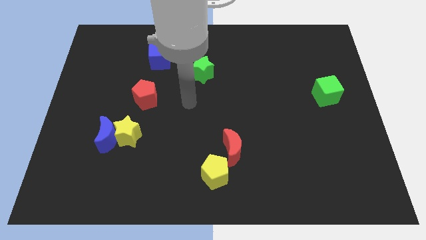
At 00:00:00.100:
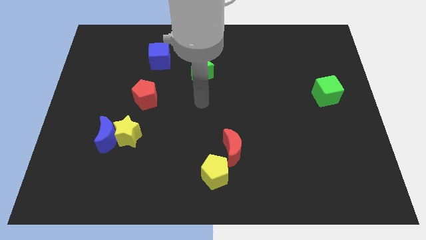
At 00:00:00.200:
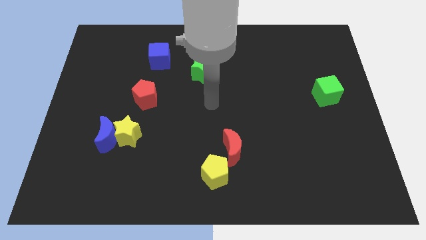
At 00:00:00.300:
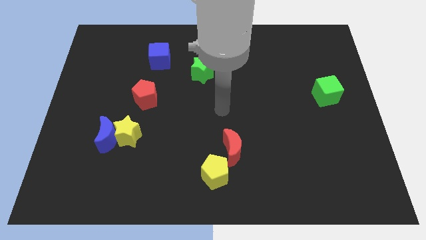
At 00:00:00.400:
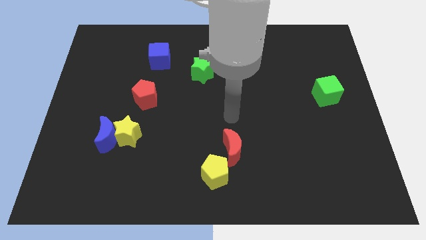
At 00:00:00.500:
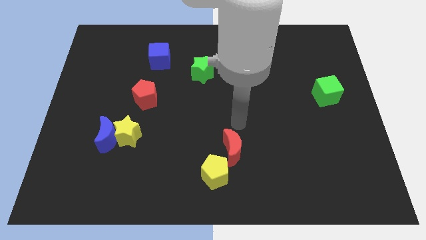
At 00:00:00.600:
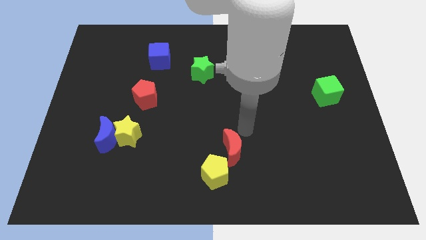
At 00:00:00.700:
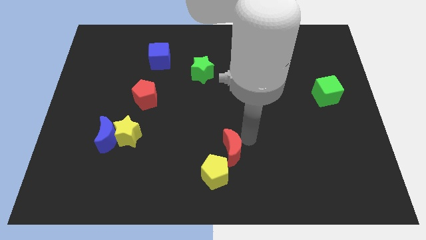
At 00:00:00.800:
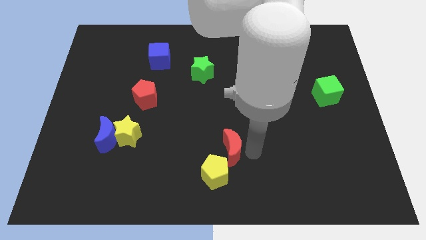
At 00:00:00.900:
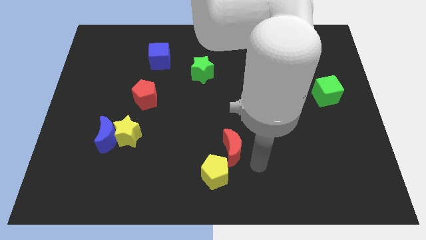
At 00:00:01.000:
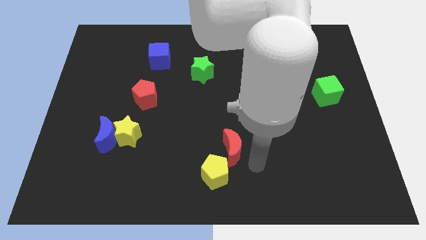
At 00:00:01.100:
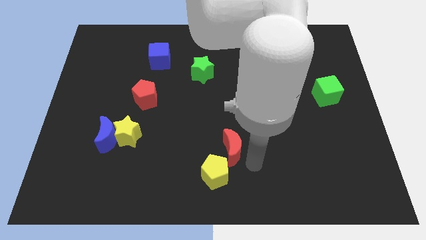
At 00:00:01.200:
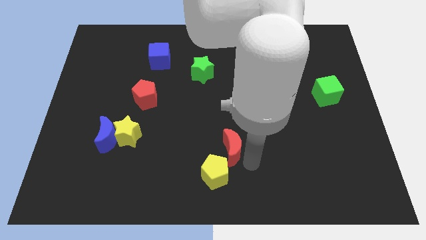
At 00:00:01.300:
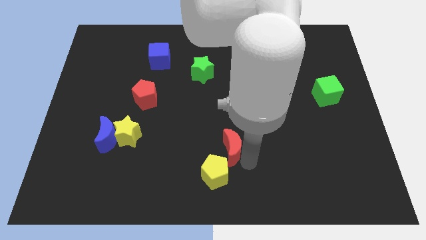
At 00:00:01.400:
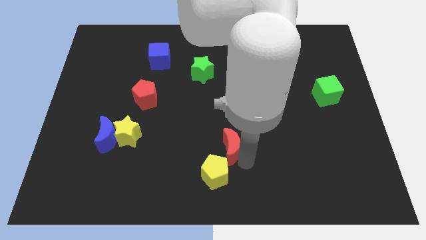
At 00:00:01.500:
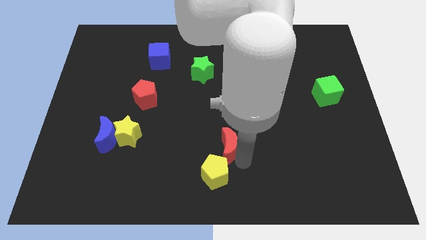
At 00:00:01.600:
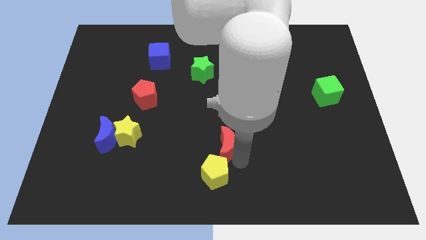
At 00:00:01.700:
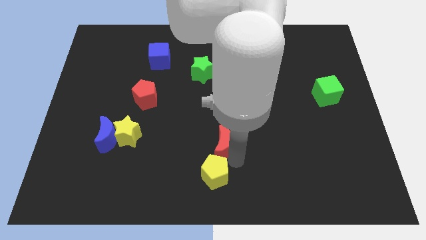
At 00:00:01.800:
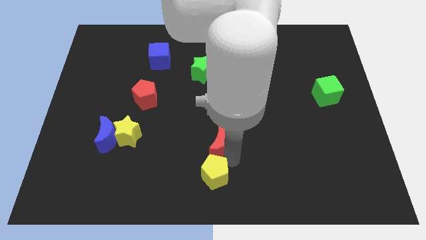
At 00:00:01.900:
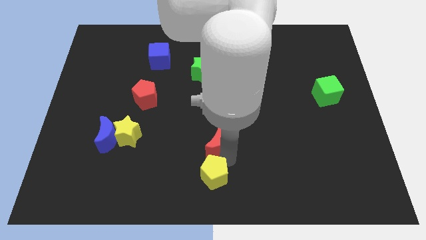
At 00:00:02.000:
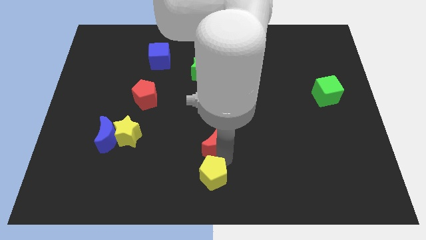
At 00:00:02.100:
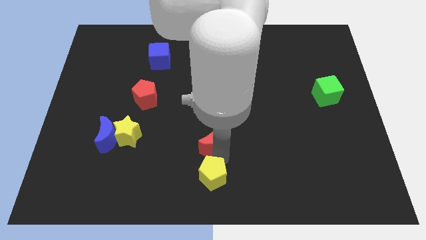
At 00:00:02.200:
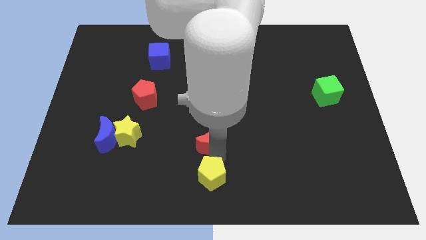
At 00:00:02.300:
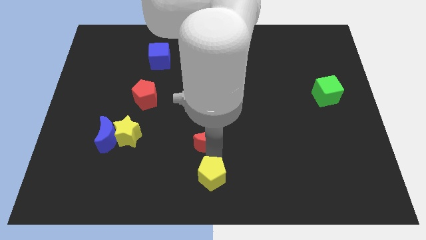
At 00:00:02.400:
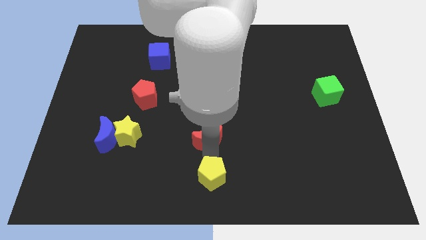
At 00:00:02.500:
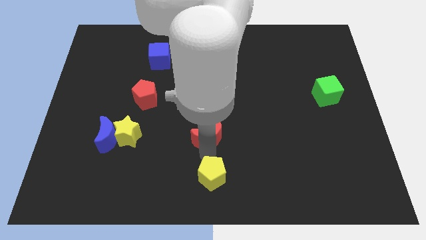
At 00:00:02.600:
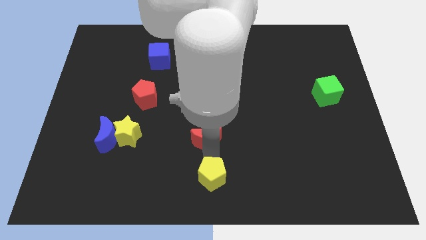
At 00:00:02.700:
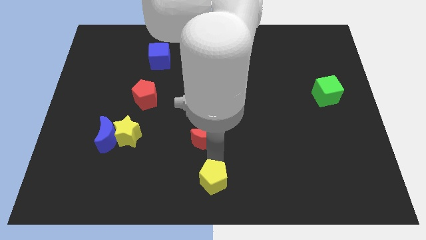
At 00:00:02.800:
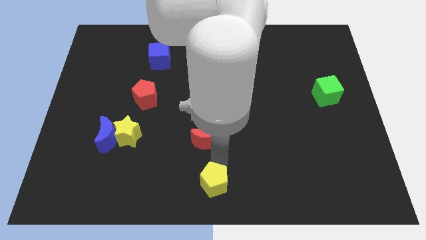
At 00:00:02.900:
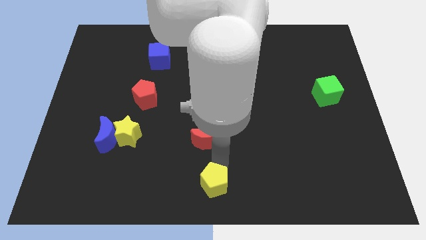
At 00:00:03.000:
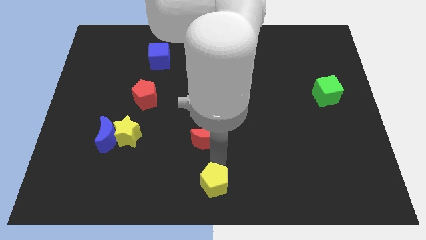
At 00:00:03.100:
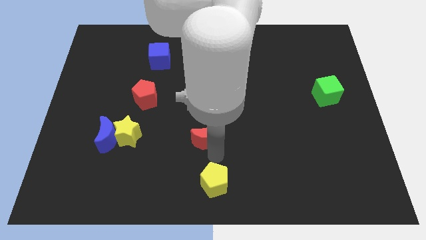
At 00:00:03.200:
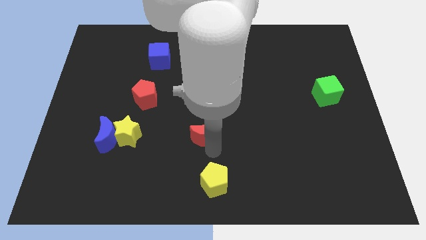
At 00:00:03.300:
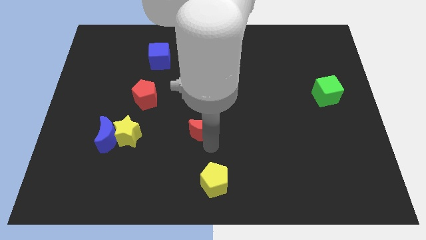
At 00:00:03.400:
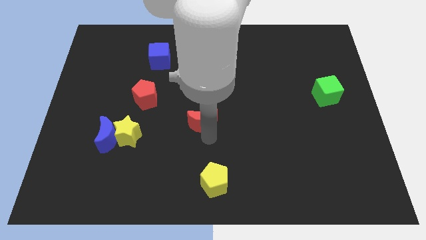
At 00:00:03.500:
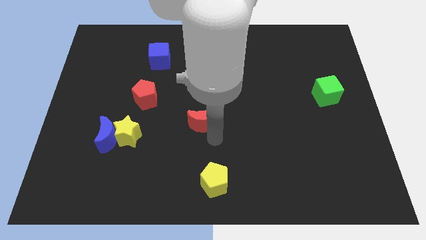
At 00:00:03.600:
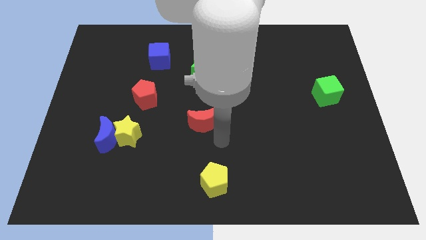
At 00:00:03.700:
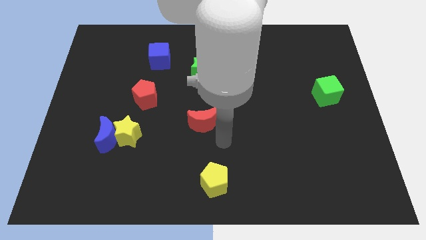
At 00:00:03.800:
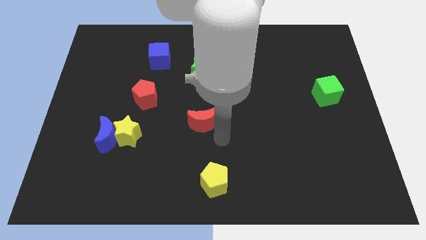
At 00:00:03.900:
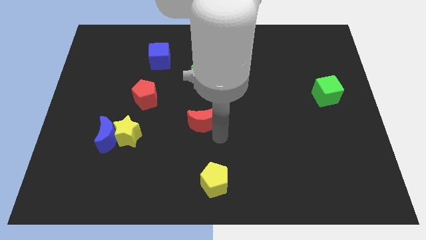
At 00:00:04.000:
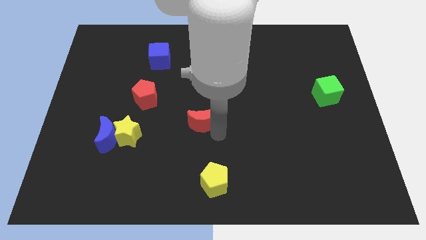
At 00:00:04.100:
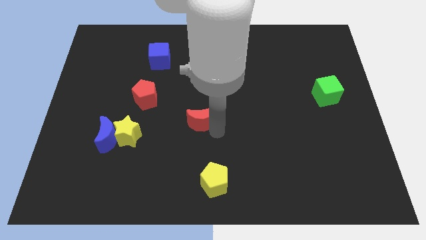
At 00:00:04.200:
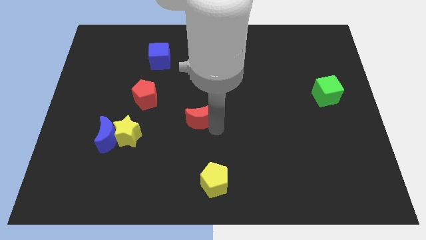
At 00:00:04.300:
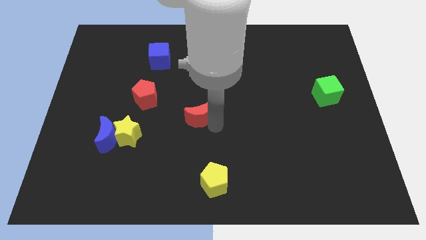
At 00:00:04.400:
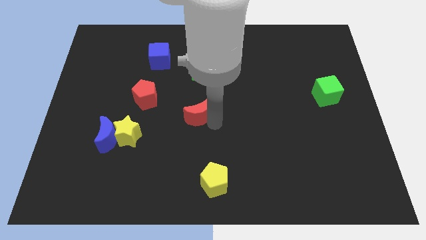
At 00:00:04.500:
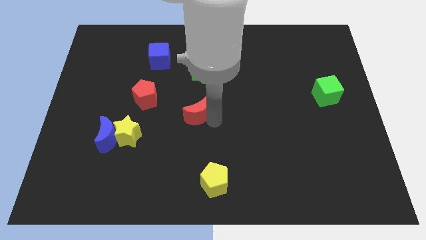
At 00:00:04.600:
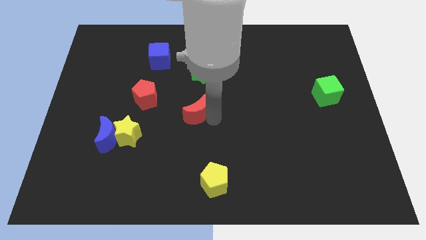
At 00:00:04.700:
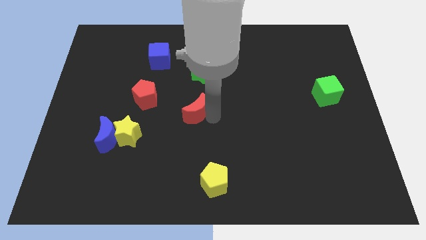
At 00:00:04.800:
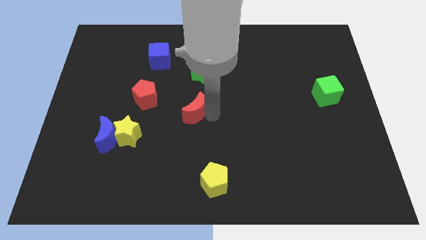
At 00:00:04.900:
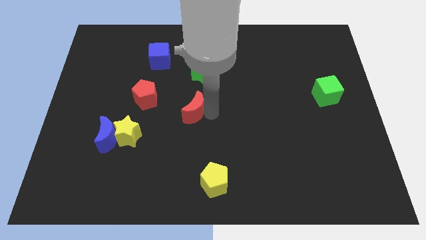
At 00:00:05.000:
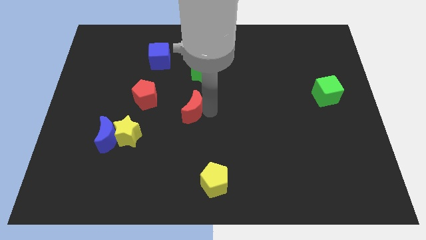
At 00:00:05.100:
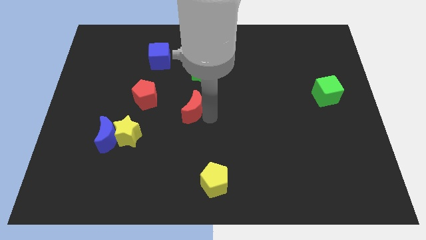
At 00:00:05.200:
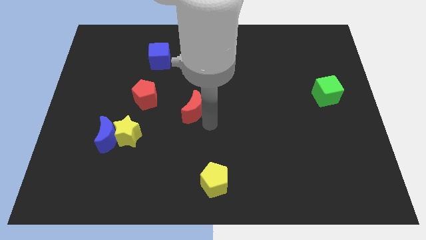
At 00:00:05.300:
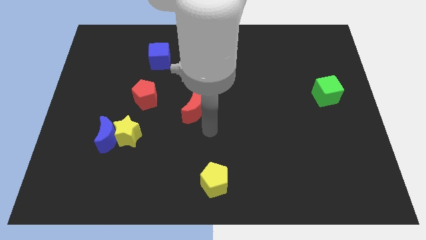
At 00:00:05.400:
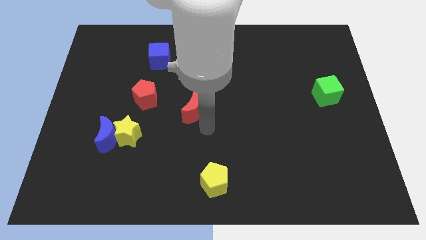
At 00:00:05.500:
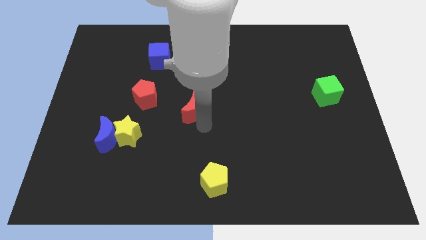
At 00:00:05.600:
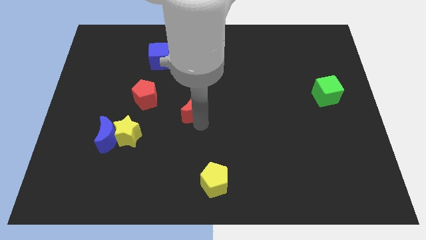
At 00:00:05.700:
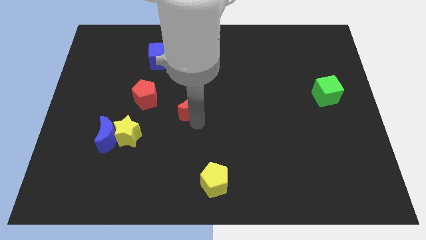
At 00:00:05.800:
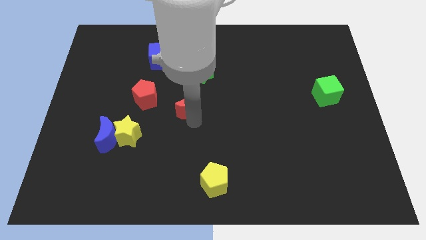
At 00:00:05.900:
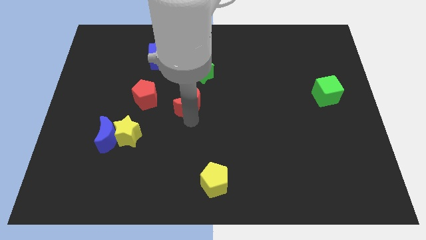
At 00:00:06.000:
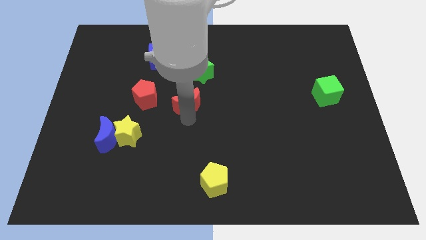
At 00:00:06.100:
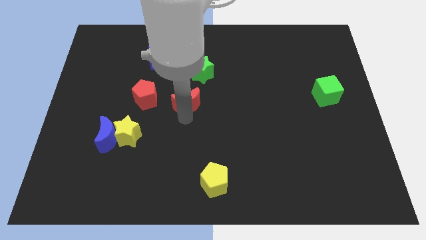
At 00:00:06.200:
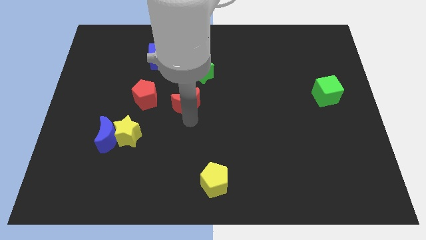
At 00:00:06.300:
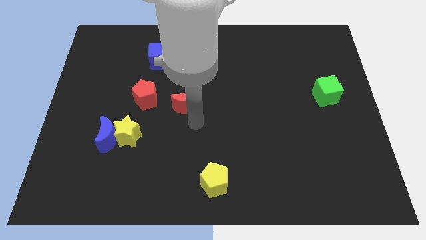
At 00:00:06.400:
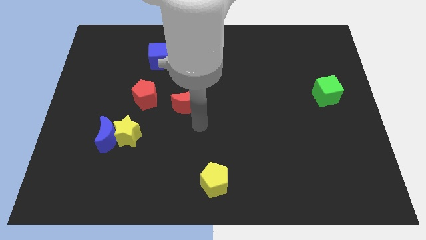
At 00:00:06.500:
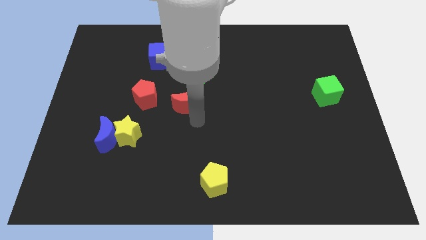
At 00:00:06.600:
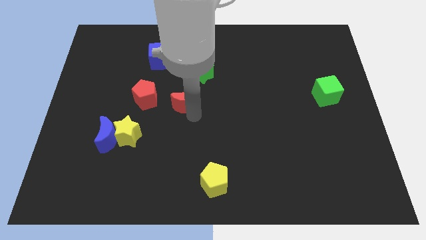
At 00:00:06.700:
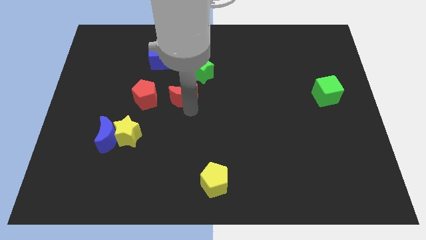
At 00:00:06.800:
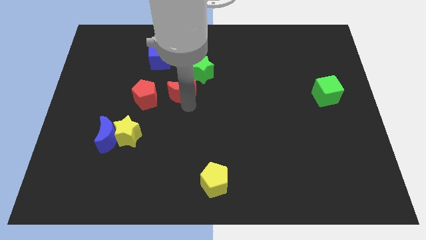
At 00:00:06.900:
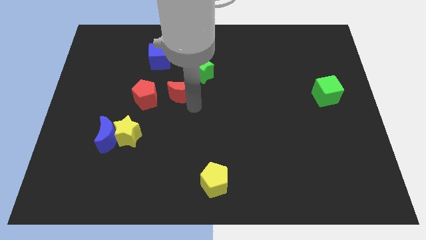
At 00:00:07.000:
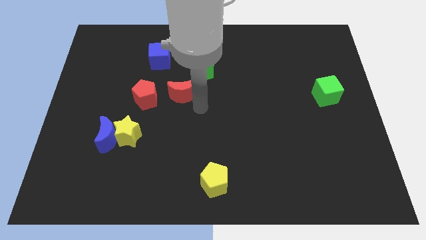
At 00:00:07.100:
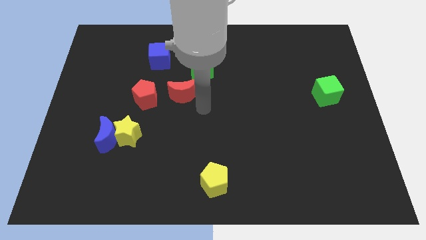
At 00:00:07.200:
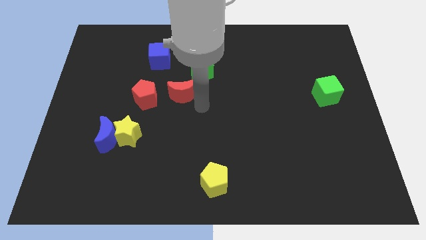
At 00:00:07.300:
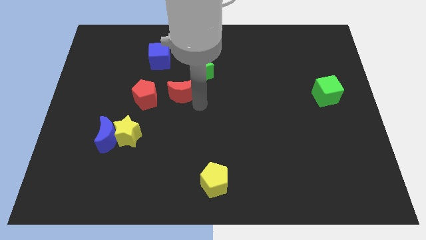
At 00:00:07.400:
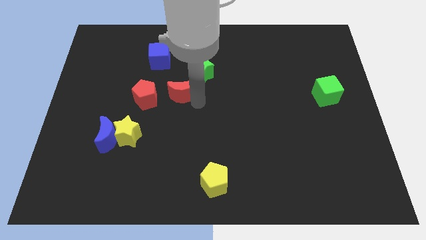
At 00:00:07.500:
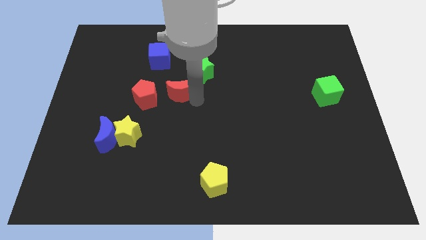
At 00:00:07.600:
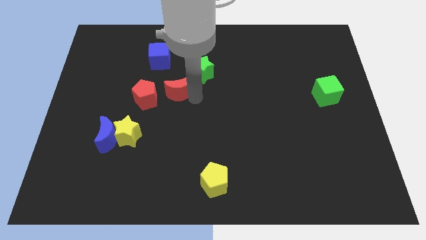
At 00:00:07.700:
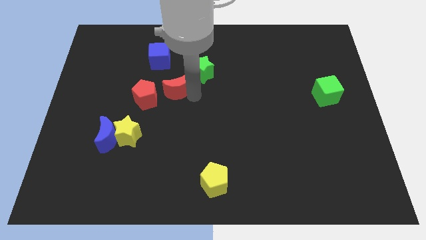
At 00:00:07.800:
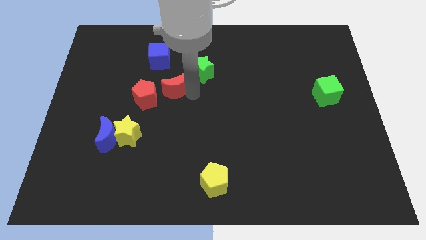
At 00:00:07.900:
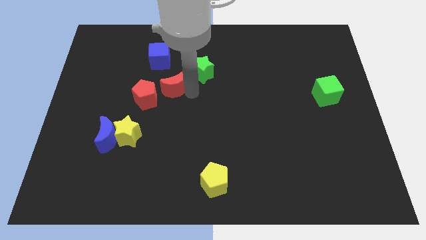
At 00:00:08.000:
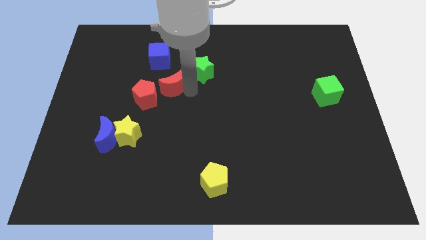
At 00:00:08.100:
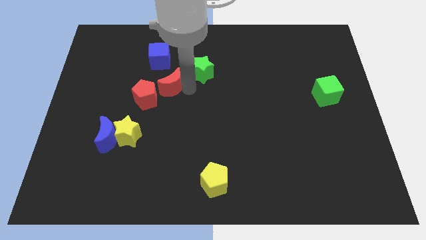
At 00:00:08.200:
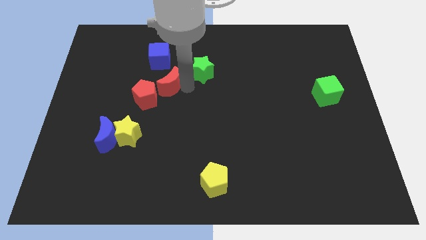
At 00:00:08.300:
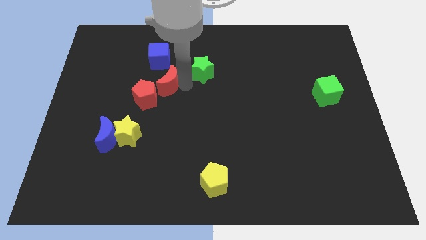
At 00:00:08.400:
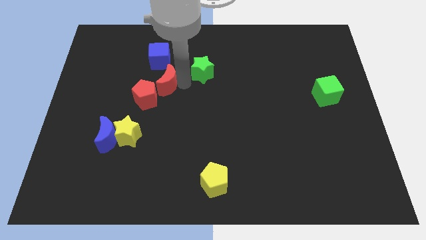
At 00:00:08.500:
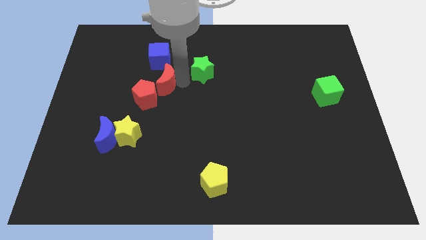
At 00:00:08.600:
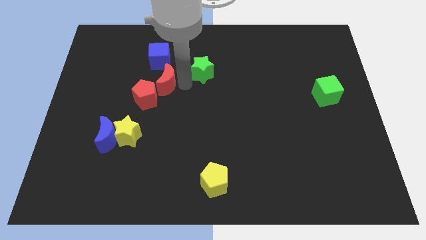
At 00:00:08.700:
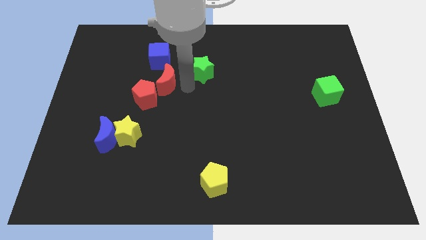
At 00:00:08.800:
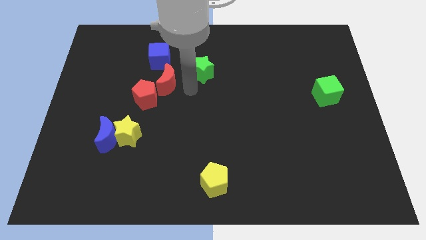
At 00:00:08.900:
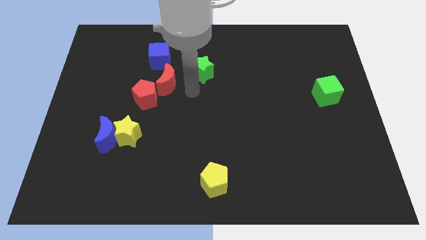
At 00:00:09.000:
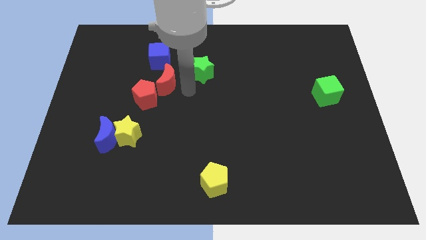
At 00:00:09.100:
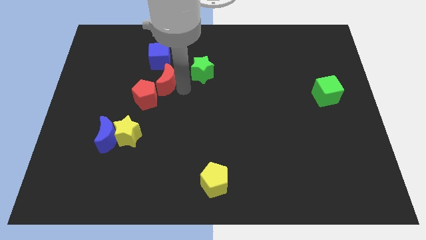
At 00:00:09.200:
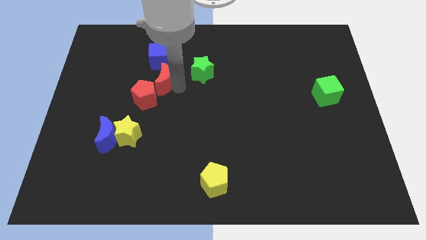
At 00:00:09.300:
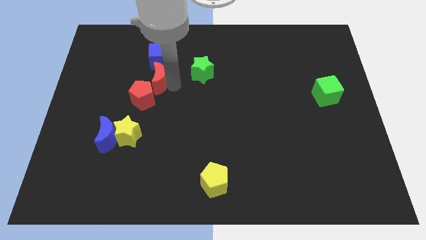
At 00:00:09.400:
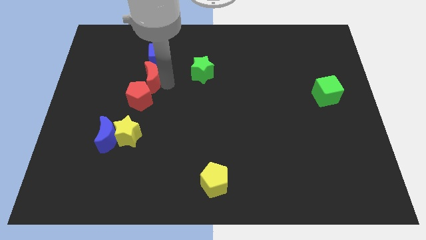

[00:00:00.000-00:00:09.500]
move the red moon diagonally down and to the left of the blue cube
